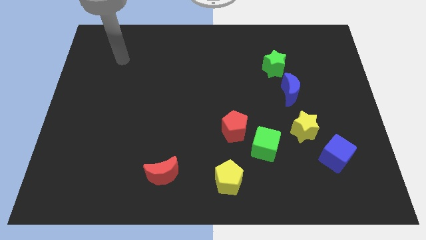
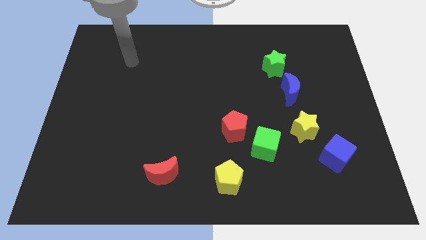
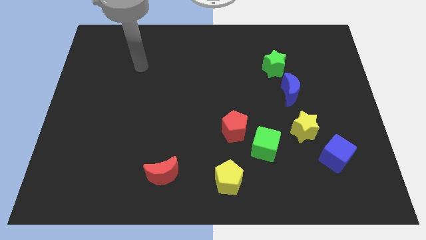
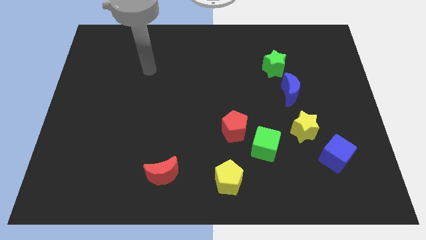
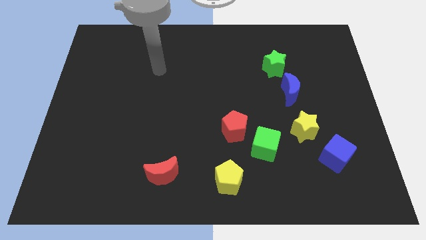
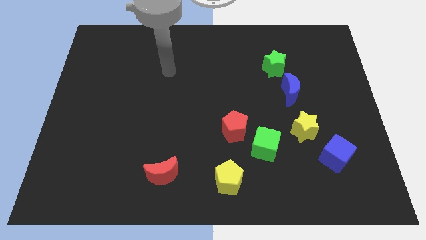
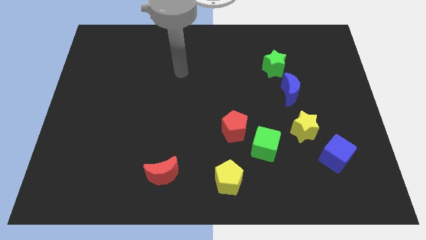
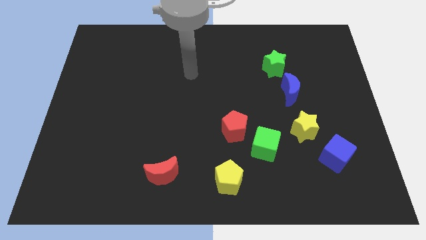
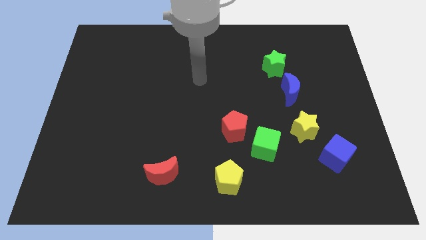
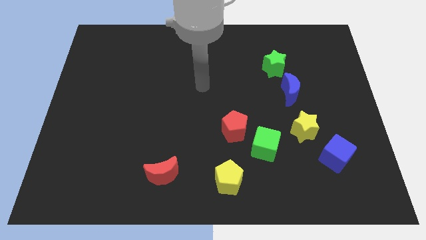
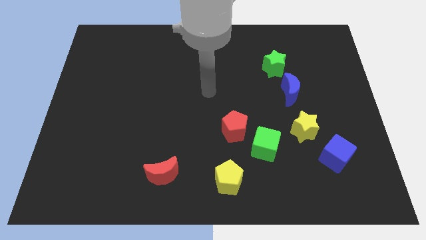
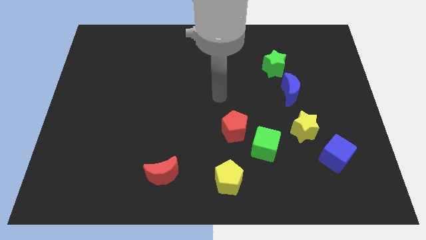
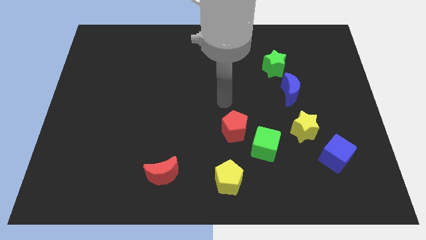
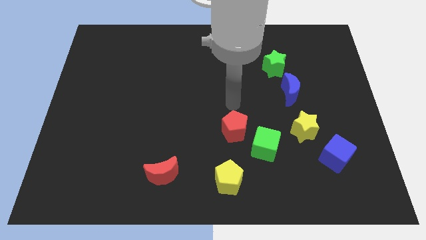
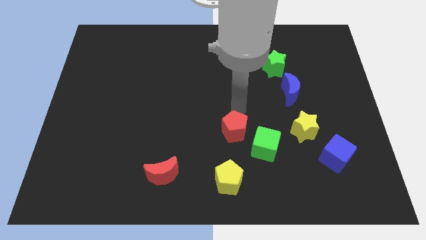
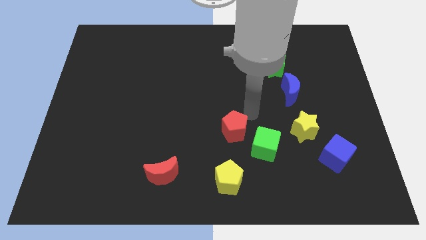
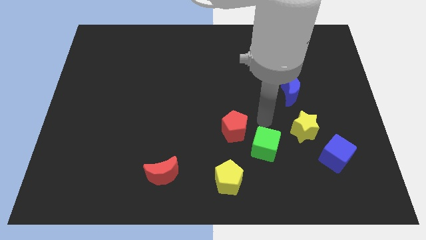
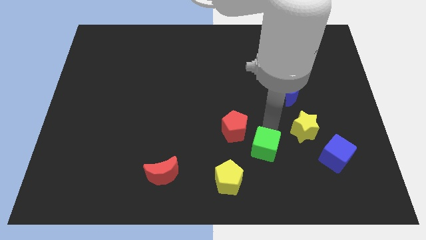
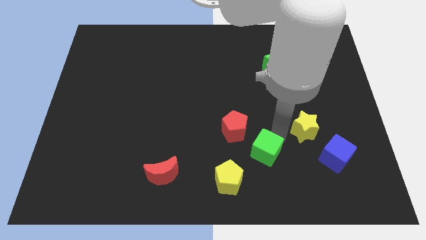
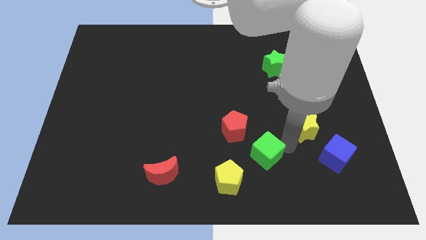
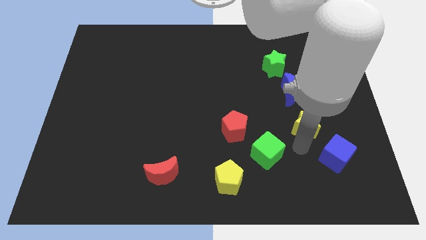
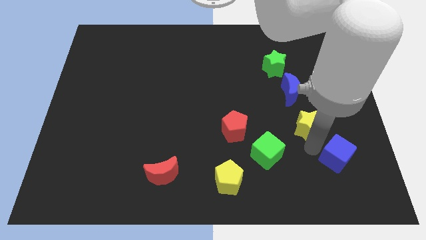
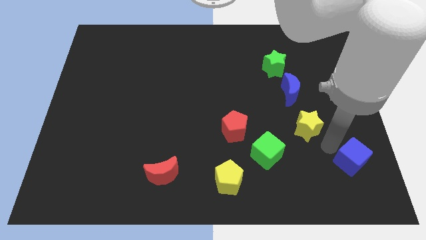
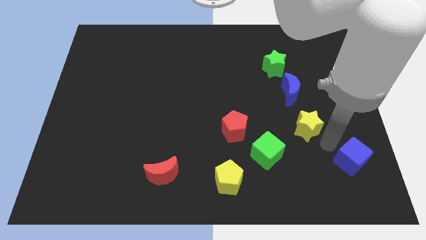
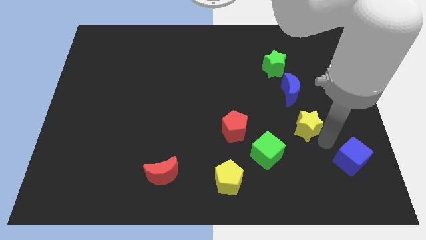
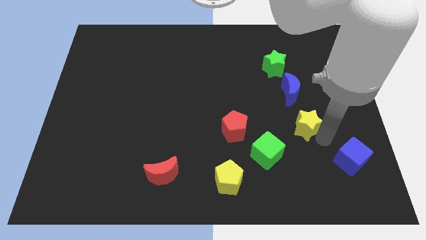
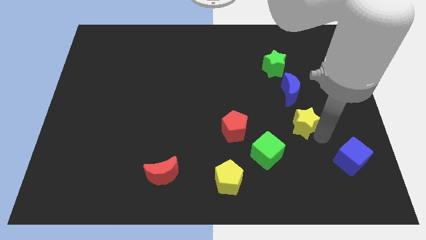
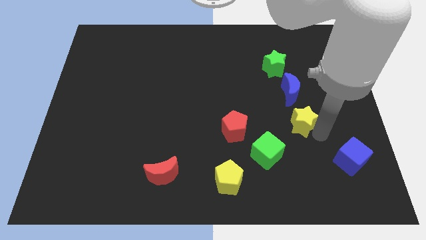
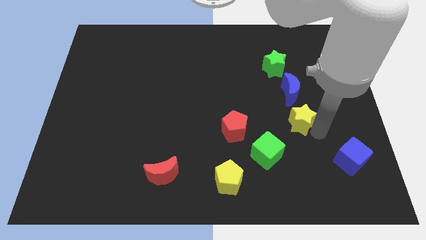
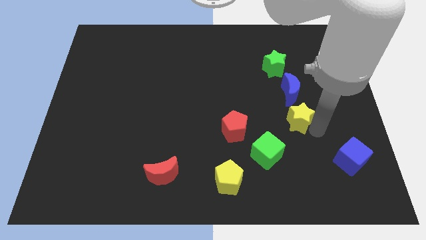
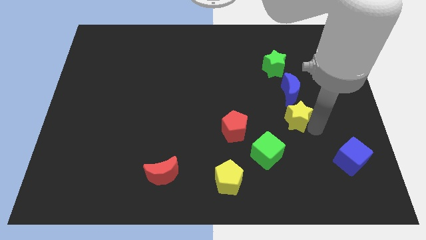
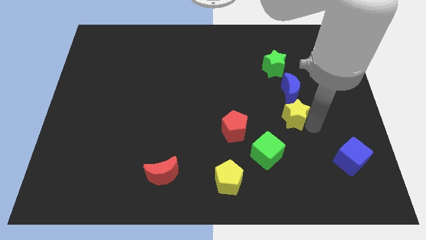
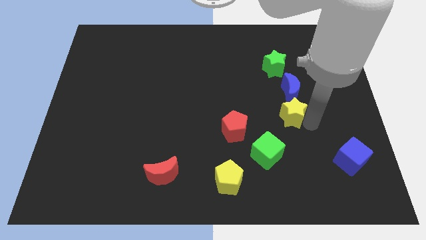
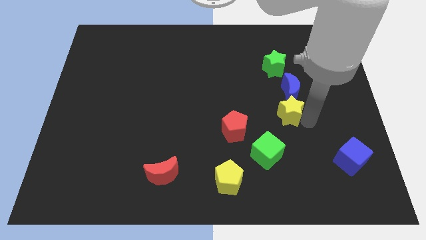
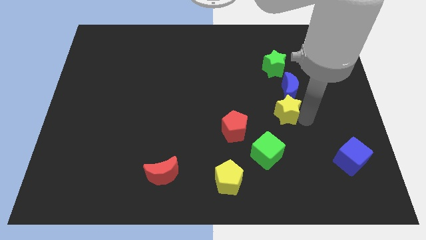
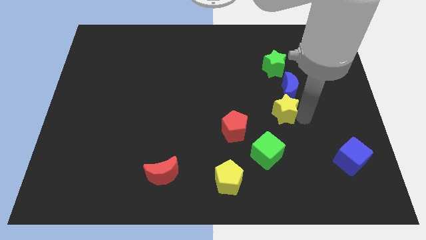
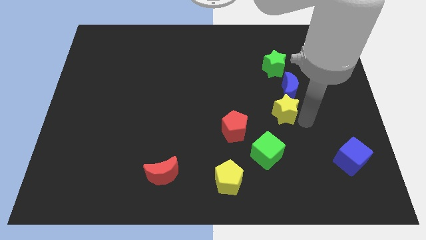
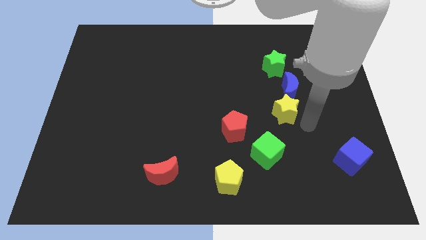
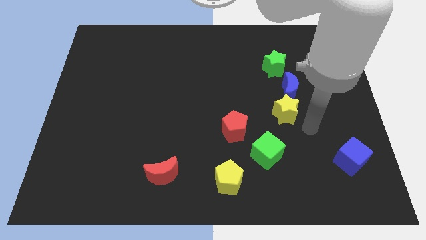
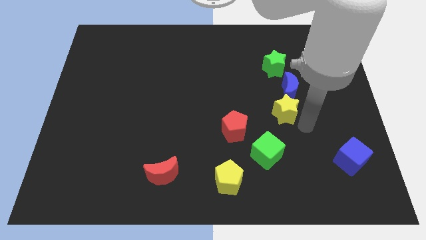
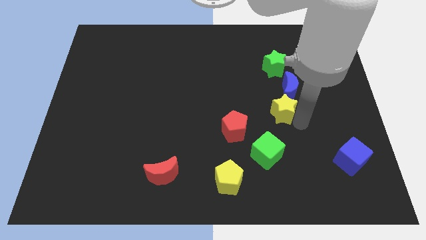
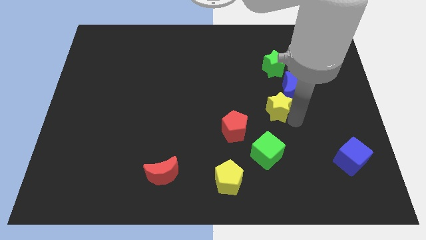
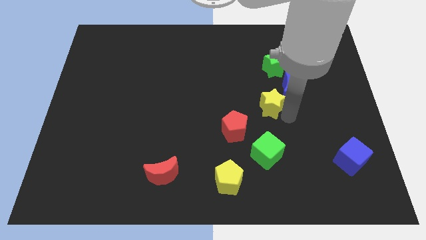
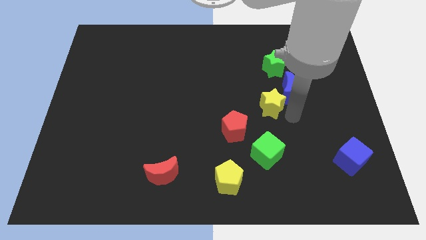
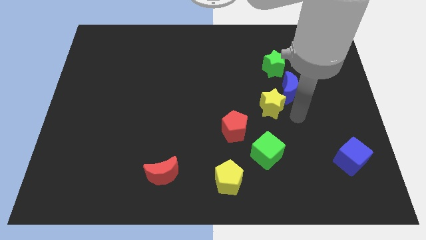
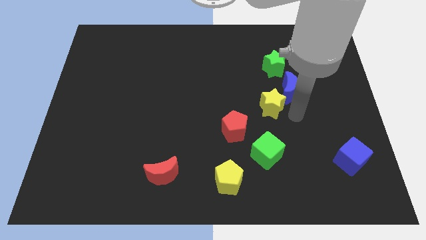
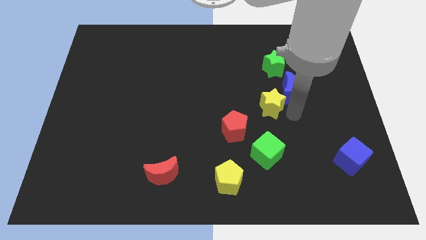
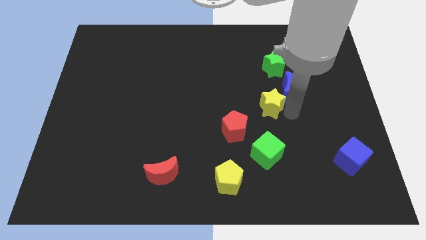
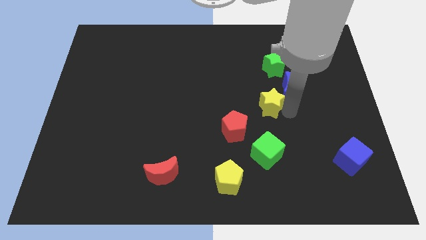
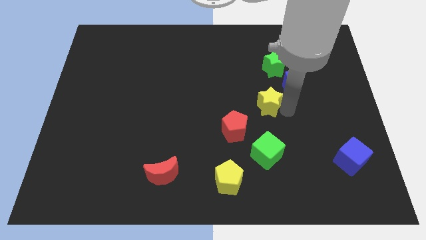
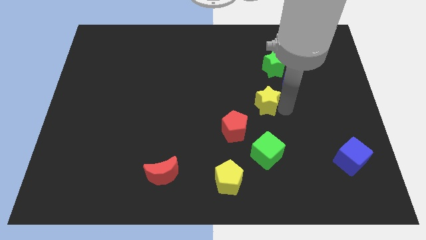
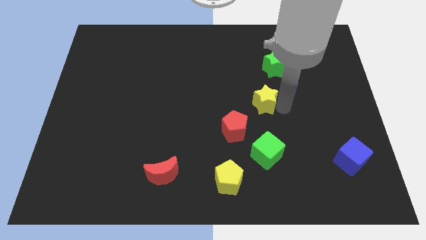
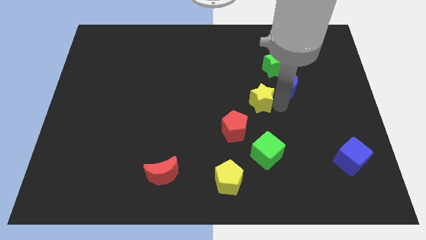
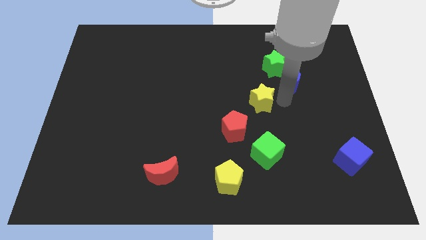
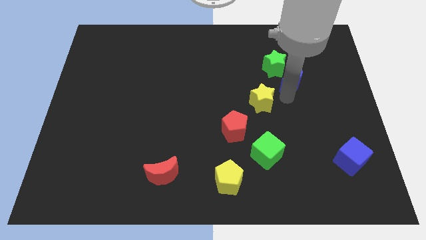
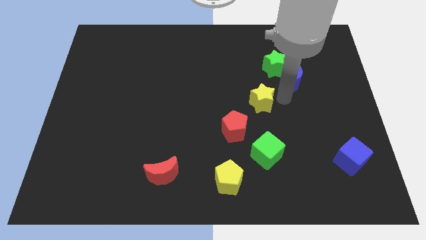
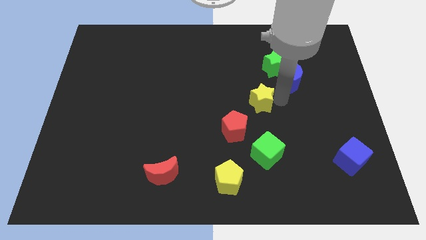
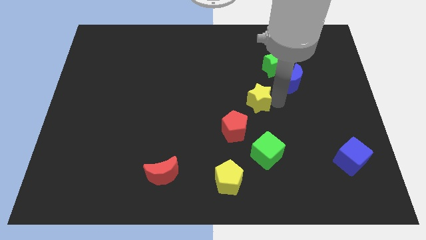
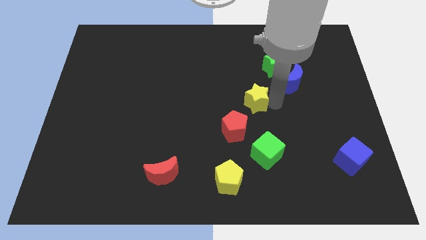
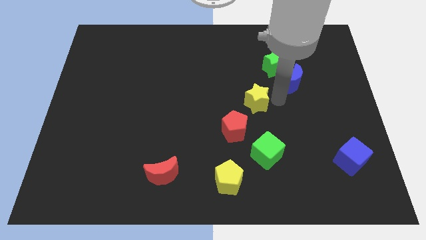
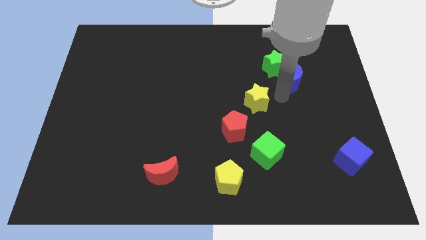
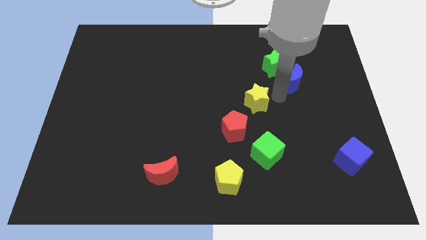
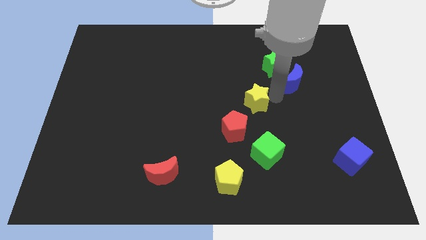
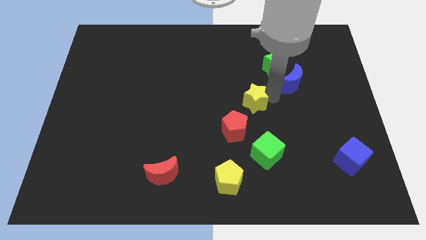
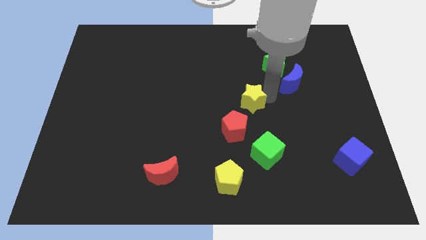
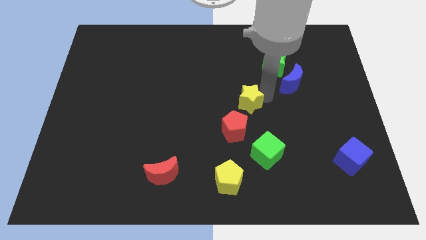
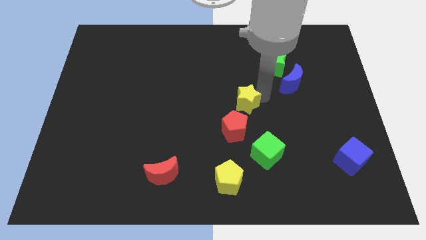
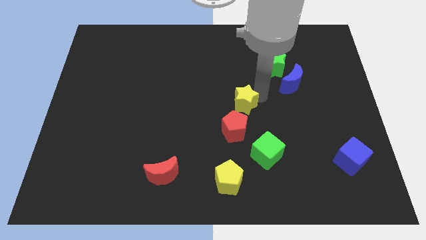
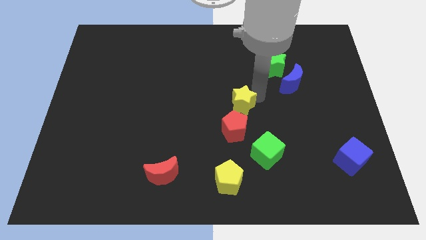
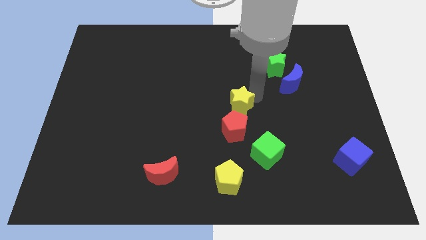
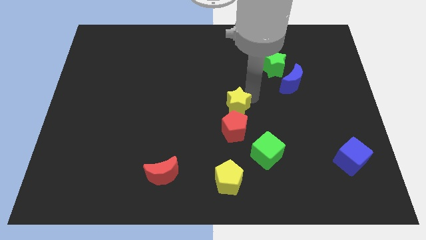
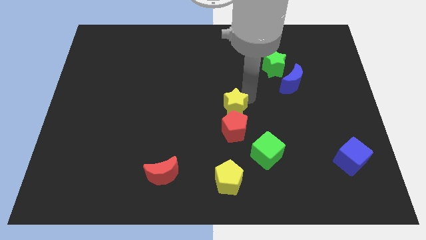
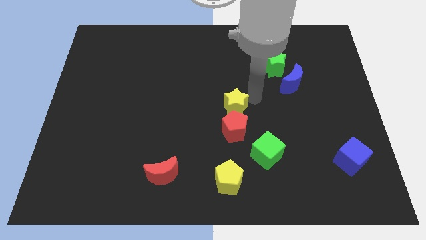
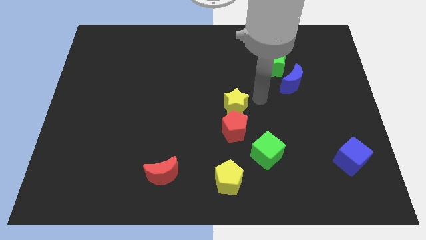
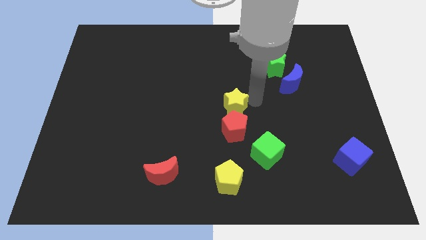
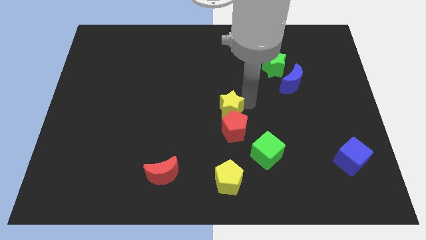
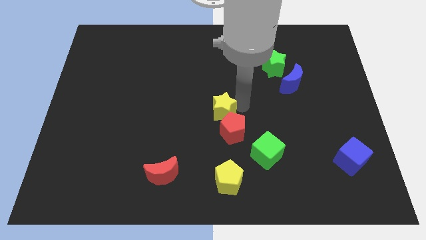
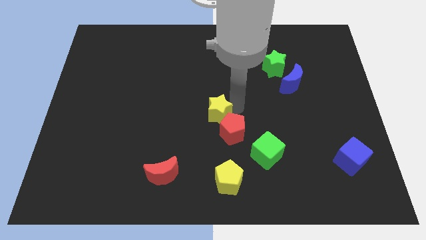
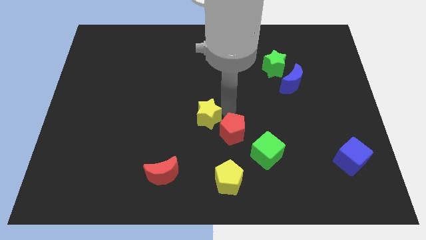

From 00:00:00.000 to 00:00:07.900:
slide the yellow star left
